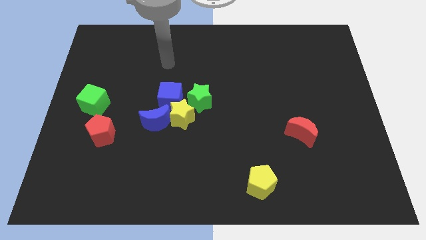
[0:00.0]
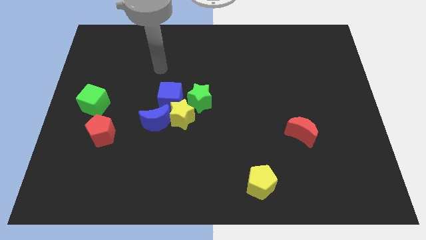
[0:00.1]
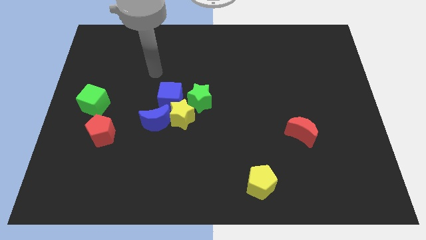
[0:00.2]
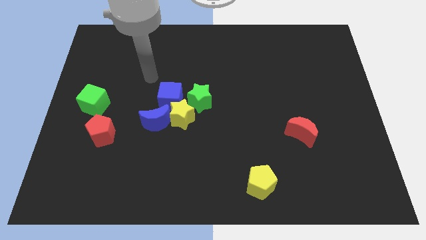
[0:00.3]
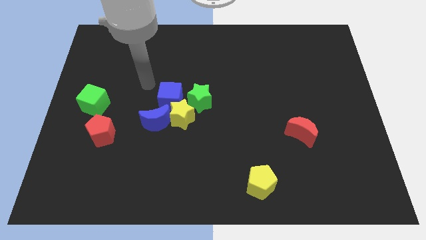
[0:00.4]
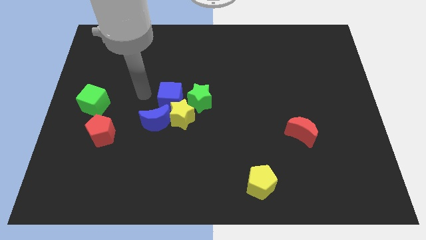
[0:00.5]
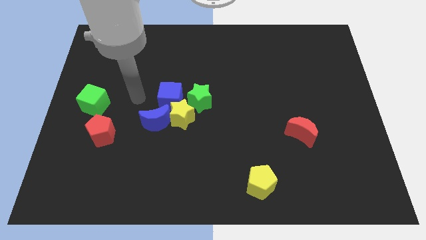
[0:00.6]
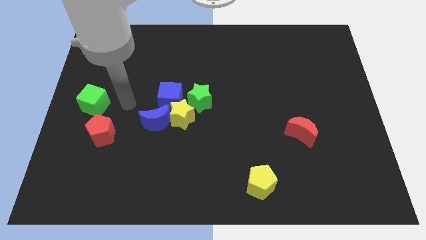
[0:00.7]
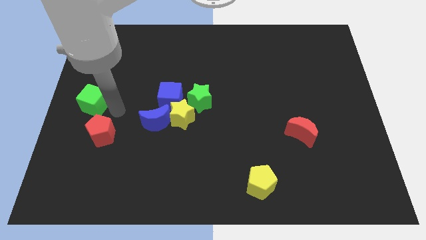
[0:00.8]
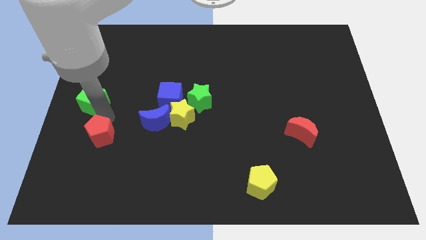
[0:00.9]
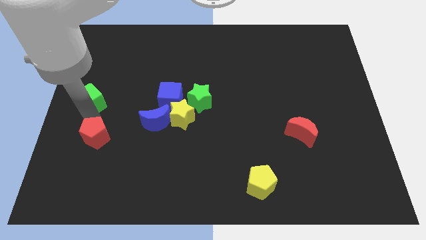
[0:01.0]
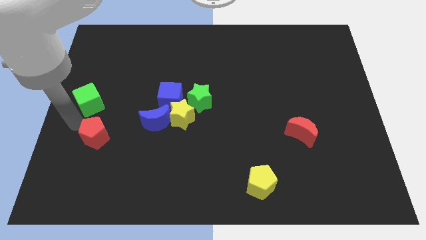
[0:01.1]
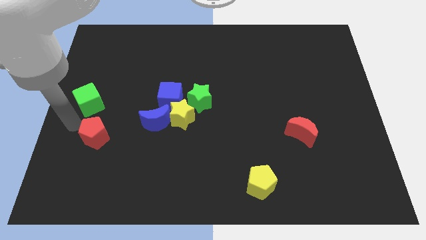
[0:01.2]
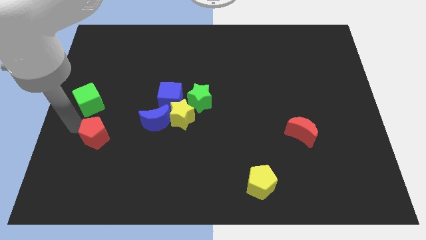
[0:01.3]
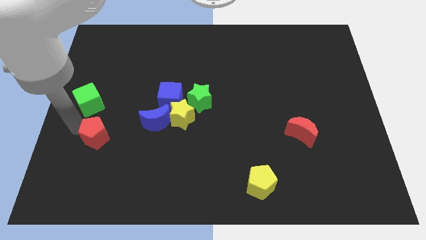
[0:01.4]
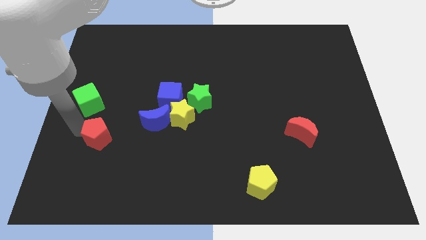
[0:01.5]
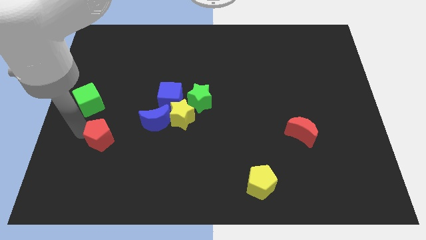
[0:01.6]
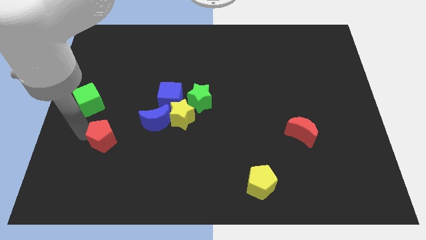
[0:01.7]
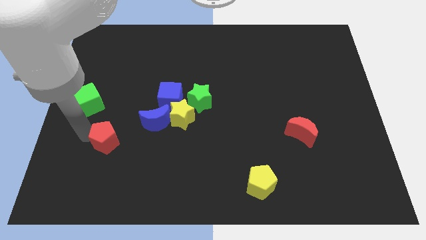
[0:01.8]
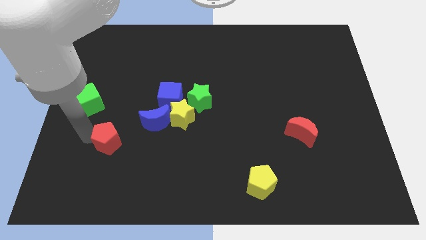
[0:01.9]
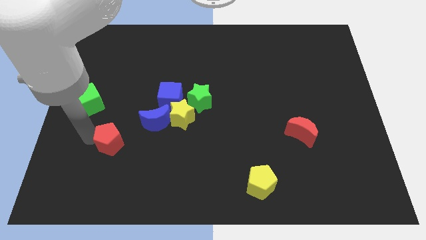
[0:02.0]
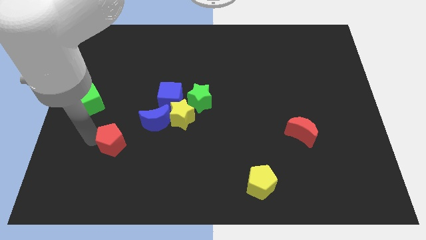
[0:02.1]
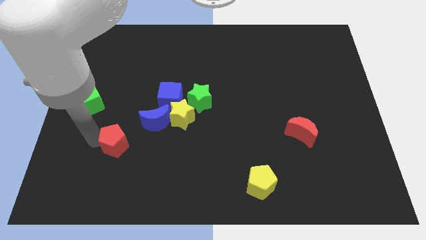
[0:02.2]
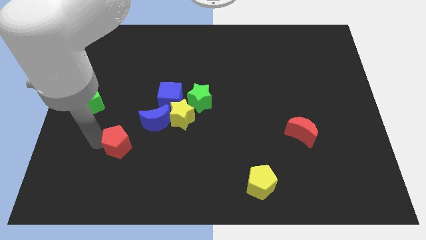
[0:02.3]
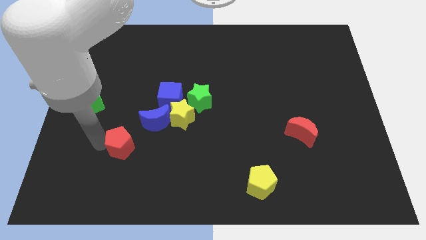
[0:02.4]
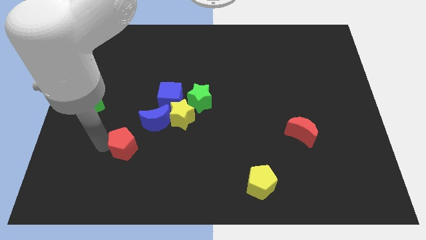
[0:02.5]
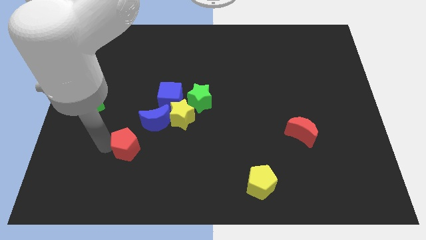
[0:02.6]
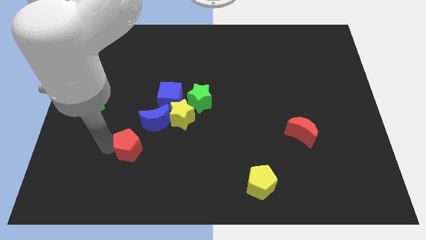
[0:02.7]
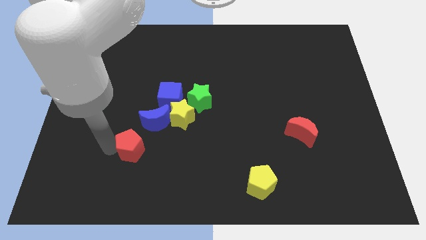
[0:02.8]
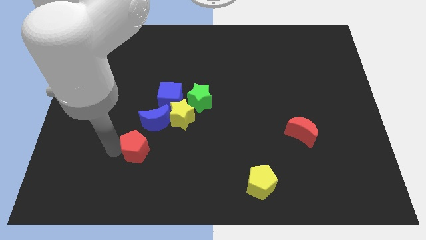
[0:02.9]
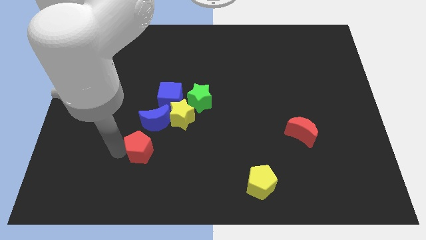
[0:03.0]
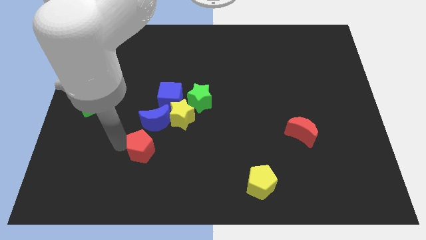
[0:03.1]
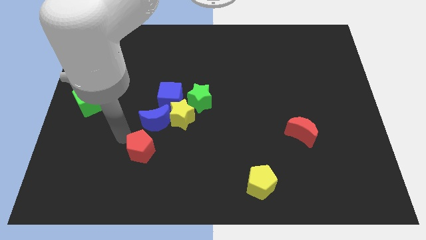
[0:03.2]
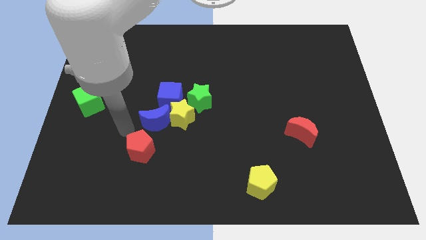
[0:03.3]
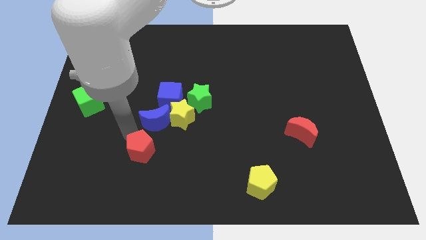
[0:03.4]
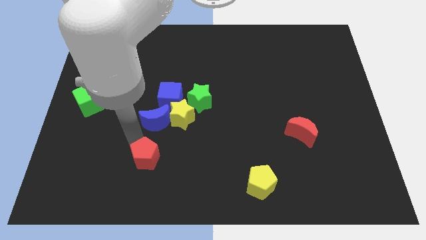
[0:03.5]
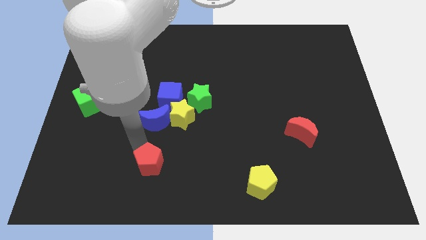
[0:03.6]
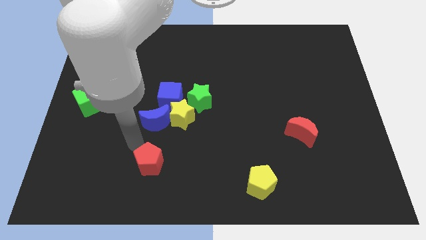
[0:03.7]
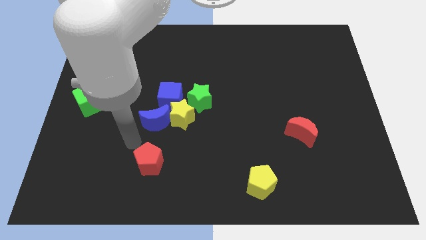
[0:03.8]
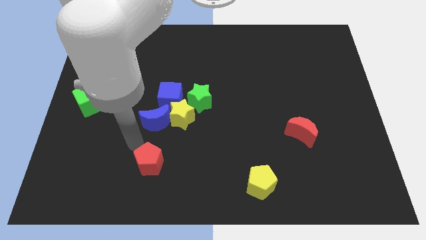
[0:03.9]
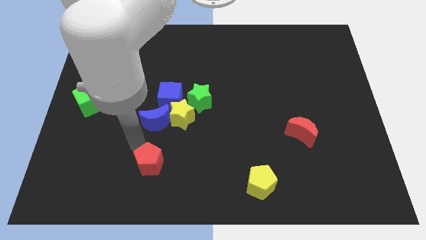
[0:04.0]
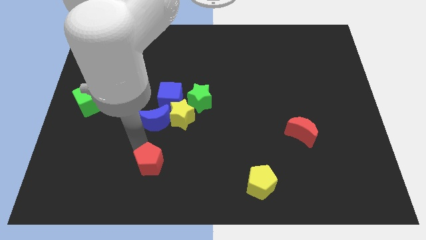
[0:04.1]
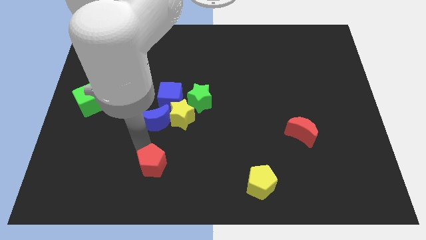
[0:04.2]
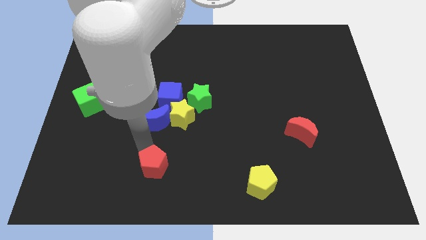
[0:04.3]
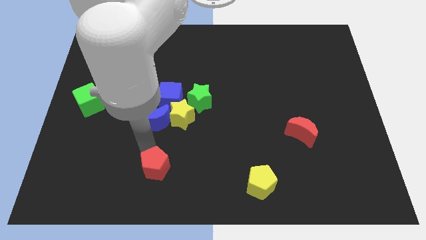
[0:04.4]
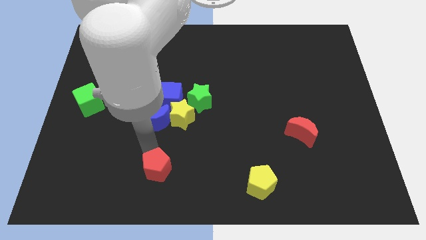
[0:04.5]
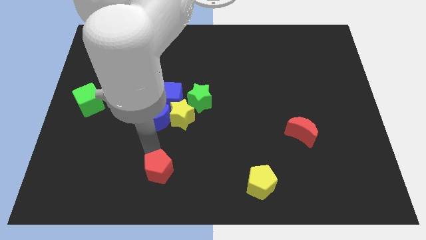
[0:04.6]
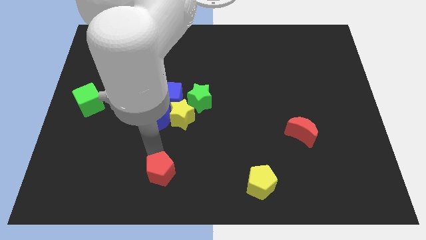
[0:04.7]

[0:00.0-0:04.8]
put the red pentagon to the bottom side

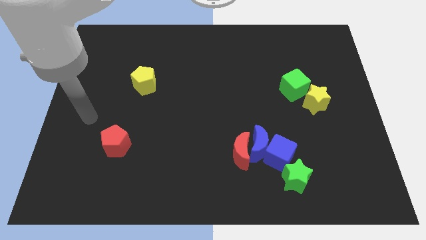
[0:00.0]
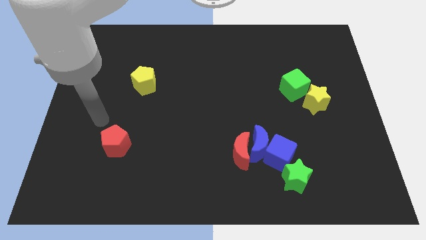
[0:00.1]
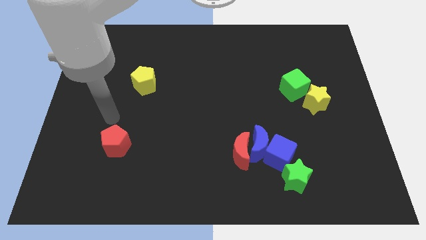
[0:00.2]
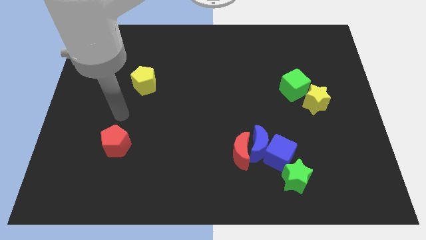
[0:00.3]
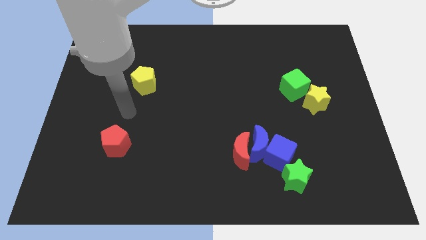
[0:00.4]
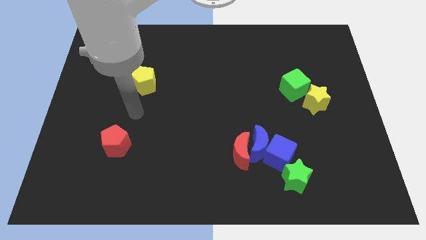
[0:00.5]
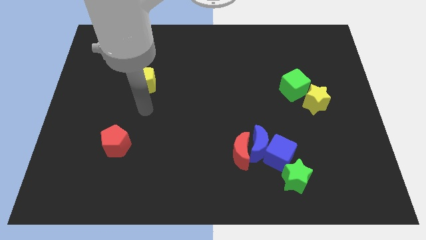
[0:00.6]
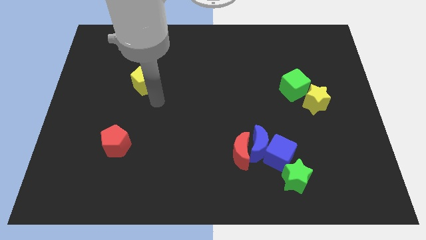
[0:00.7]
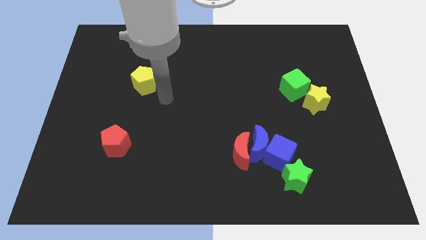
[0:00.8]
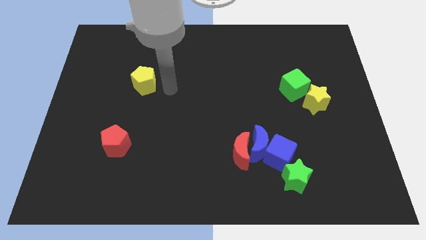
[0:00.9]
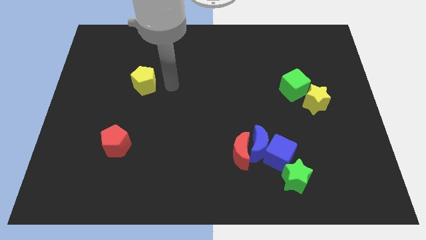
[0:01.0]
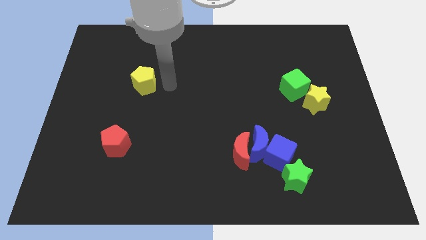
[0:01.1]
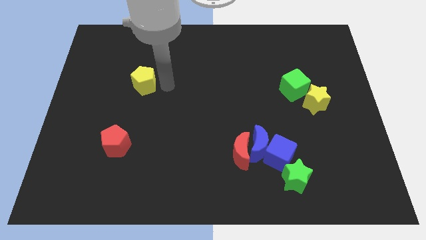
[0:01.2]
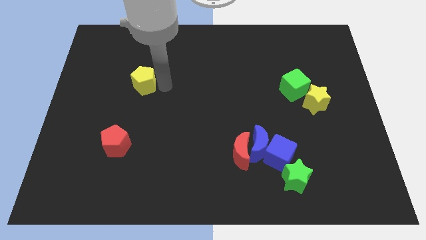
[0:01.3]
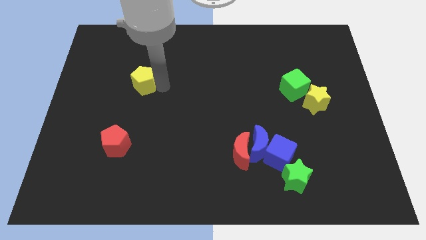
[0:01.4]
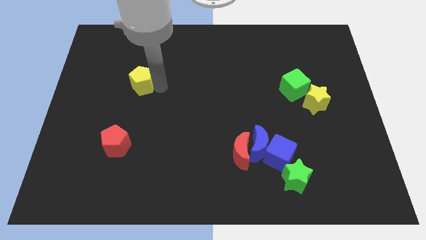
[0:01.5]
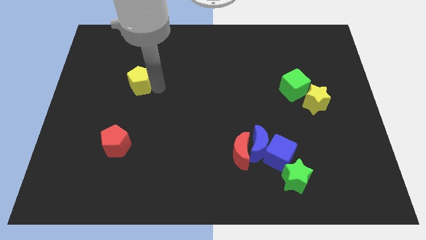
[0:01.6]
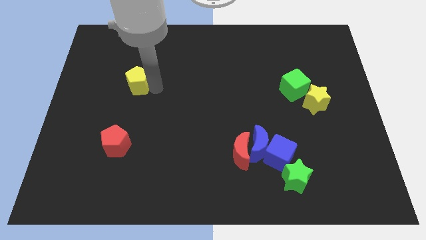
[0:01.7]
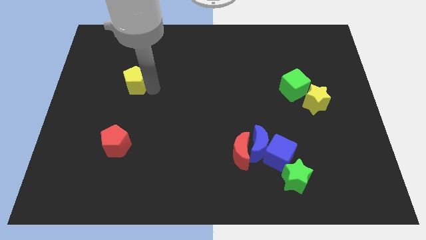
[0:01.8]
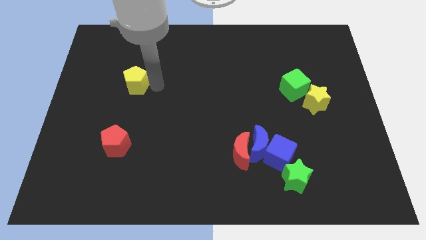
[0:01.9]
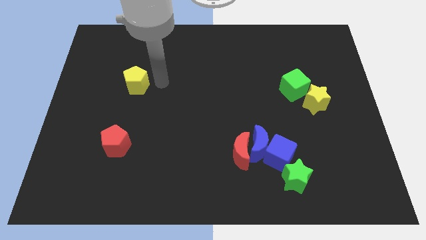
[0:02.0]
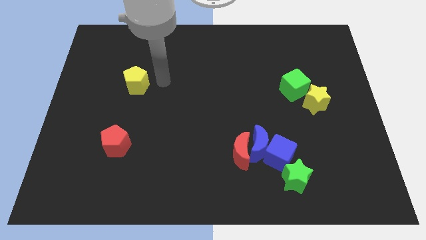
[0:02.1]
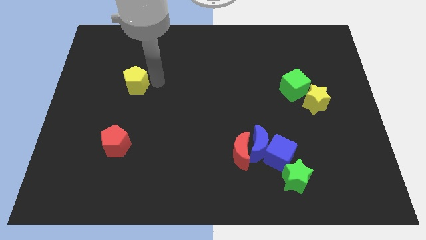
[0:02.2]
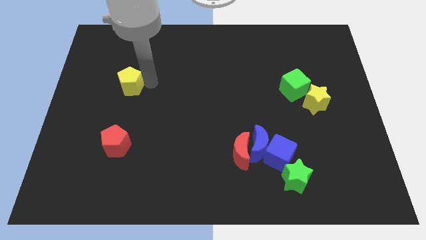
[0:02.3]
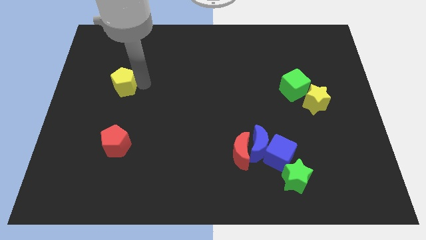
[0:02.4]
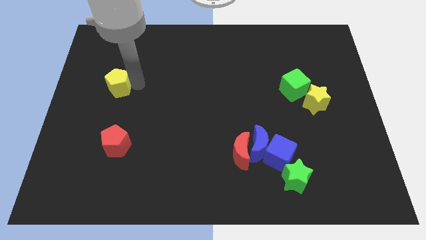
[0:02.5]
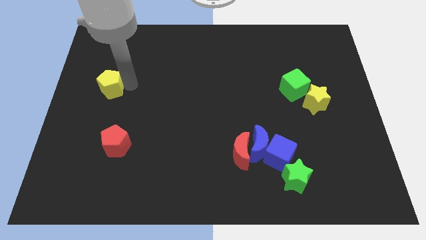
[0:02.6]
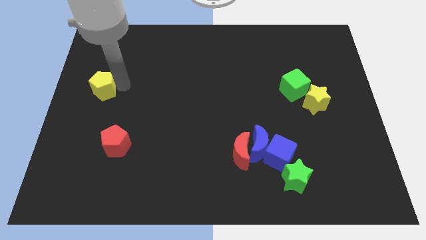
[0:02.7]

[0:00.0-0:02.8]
push the yellow pentagon to the center left

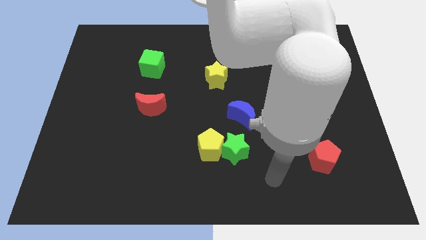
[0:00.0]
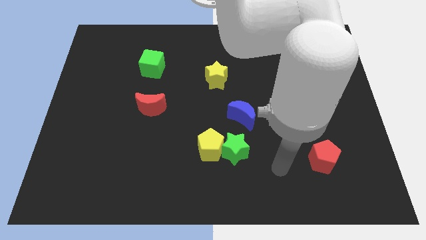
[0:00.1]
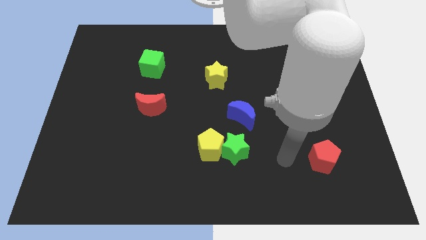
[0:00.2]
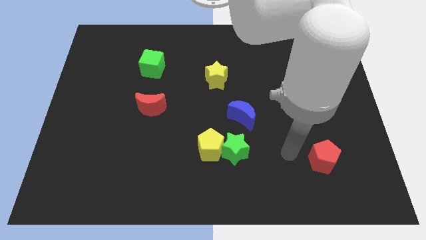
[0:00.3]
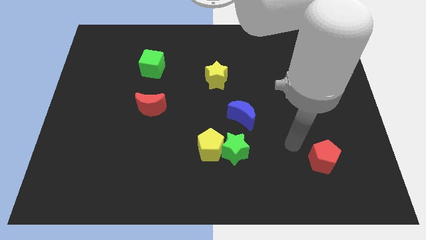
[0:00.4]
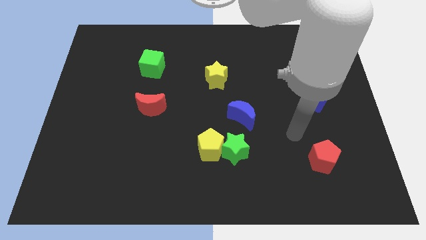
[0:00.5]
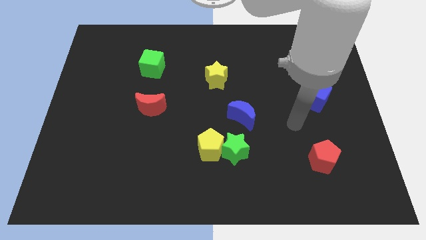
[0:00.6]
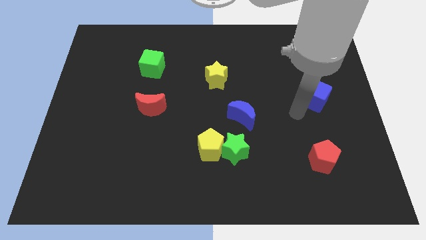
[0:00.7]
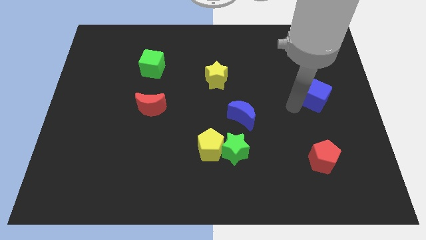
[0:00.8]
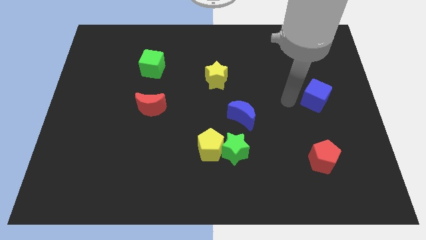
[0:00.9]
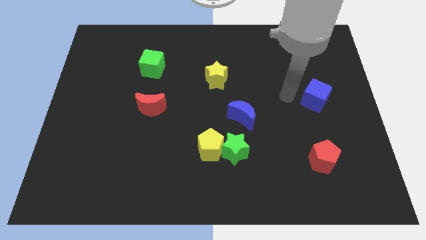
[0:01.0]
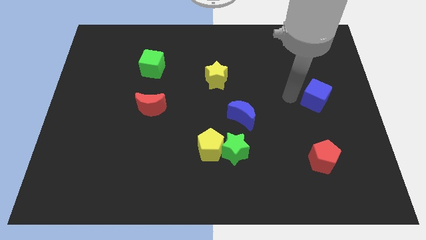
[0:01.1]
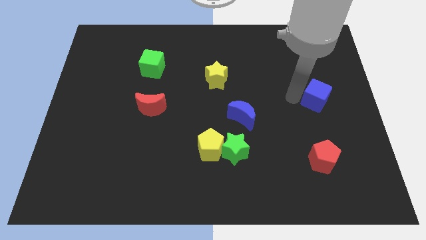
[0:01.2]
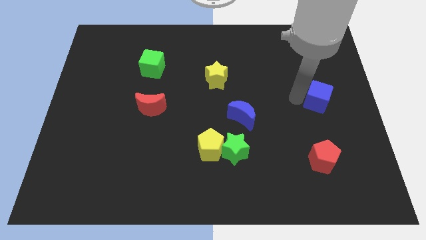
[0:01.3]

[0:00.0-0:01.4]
move the blue cube to the right side
